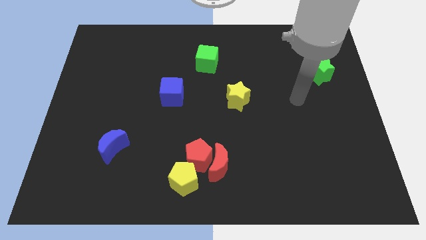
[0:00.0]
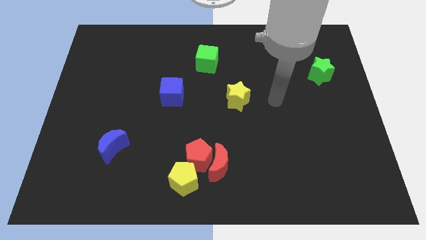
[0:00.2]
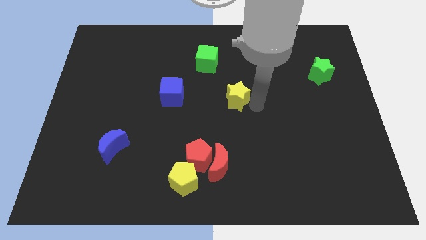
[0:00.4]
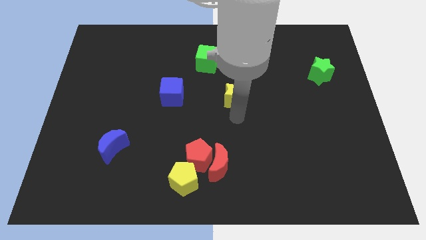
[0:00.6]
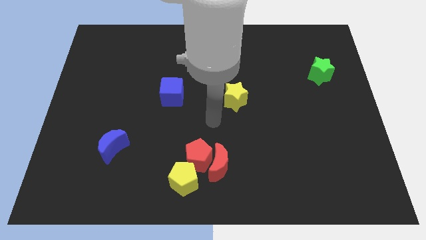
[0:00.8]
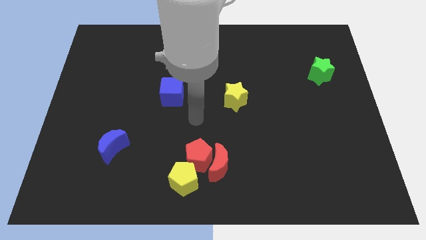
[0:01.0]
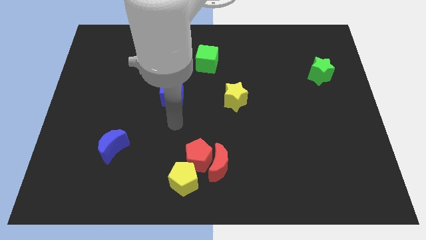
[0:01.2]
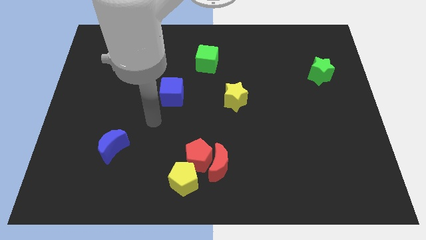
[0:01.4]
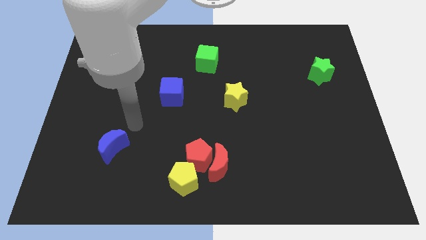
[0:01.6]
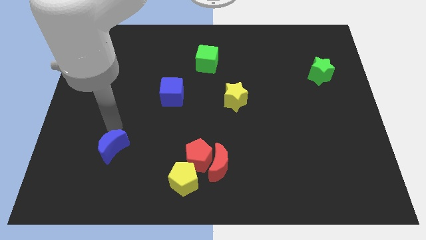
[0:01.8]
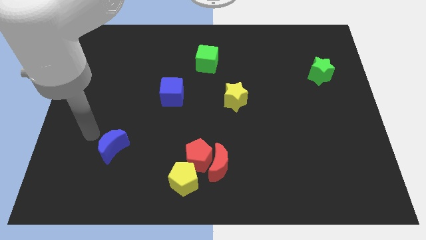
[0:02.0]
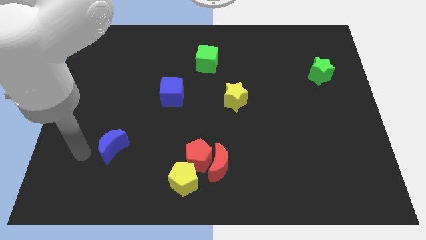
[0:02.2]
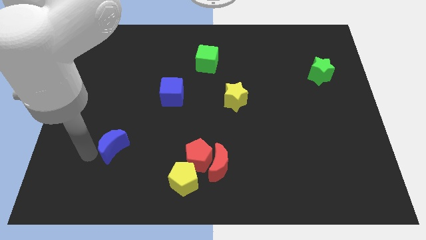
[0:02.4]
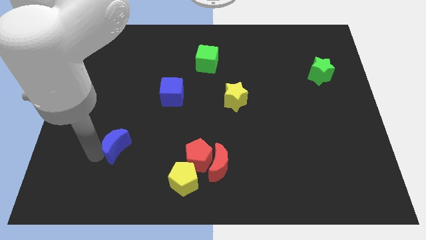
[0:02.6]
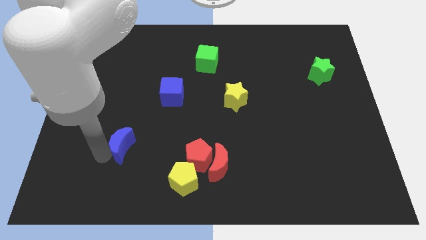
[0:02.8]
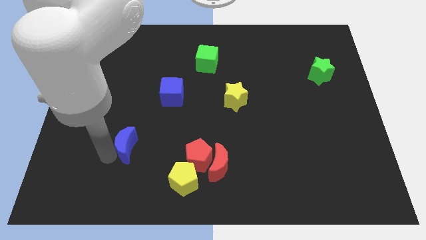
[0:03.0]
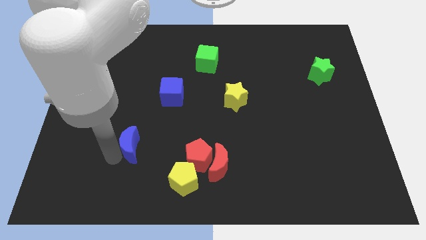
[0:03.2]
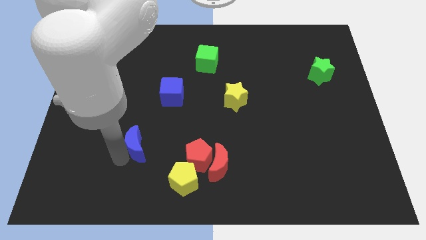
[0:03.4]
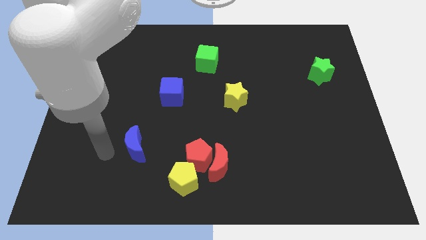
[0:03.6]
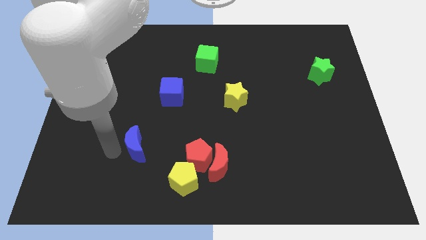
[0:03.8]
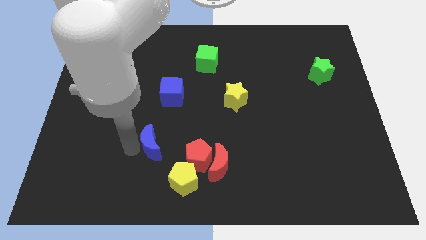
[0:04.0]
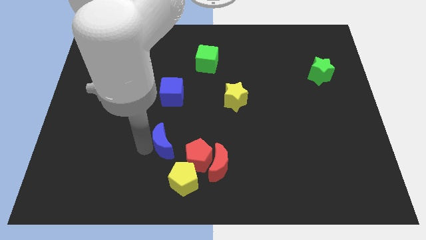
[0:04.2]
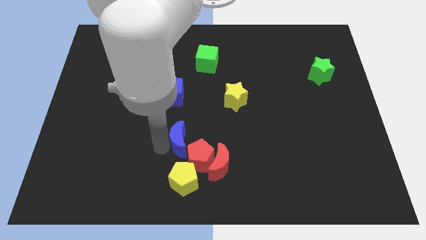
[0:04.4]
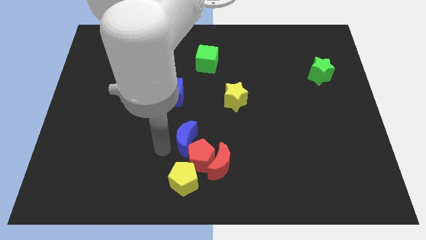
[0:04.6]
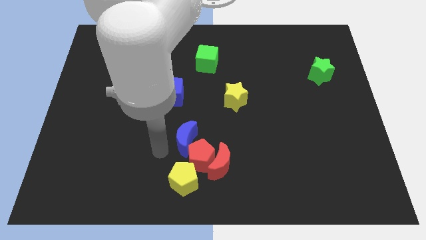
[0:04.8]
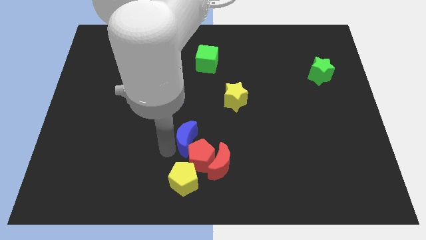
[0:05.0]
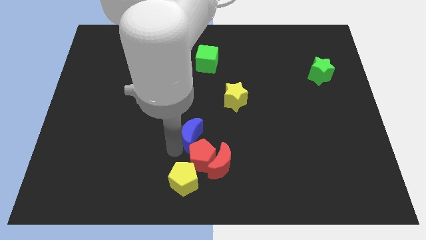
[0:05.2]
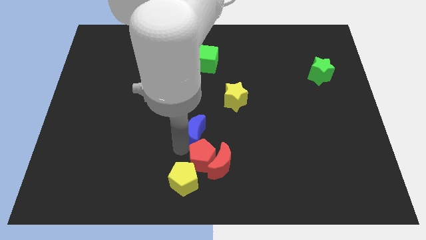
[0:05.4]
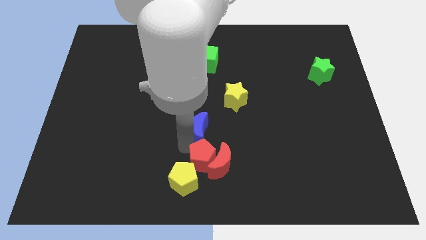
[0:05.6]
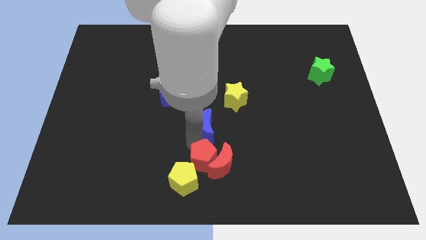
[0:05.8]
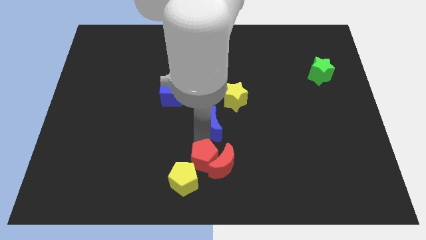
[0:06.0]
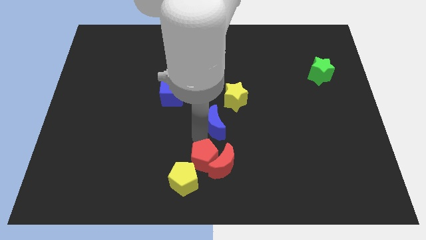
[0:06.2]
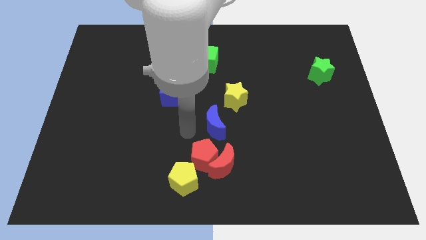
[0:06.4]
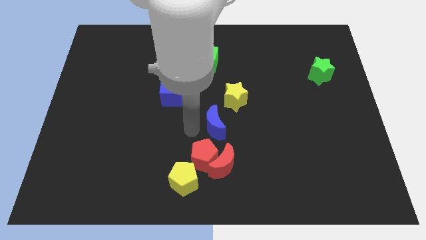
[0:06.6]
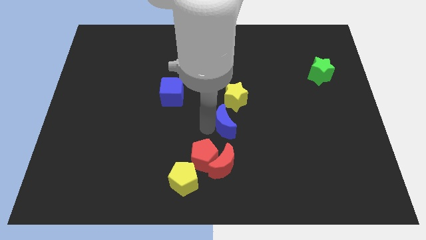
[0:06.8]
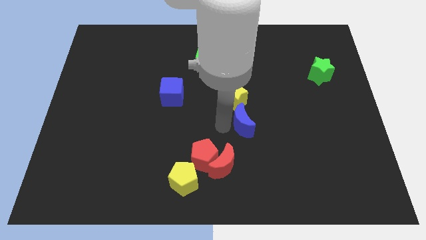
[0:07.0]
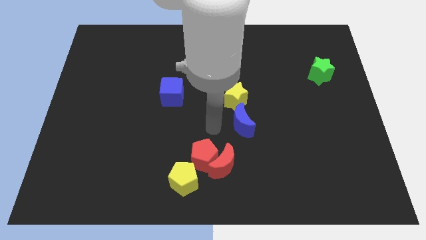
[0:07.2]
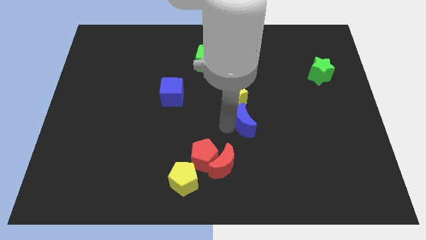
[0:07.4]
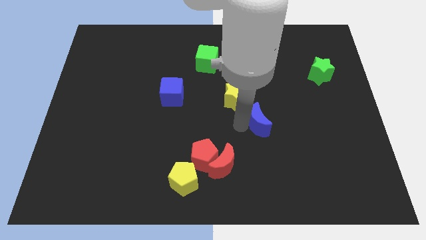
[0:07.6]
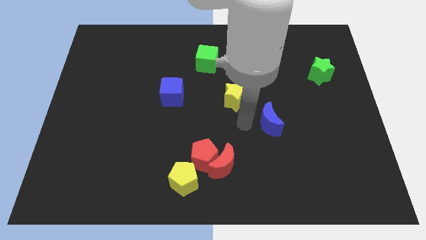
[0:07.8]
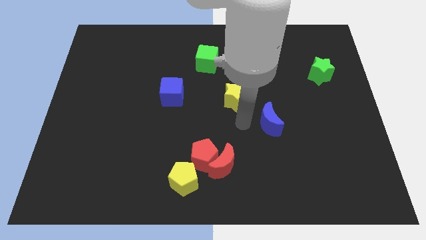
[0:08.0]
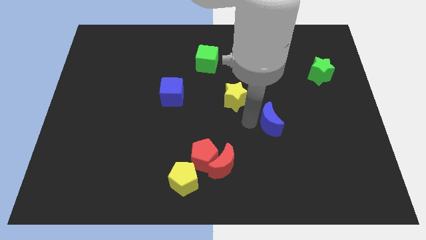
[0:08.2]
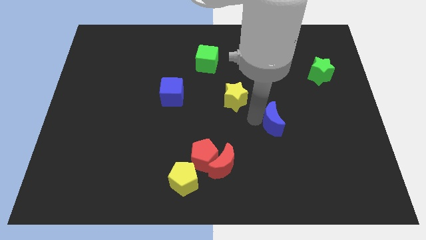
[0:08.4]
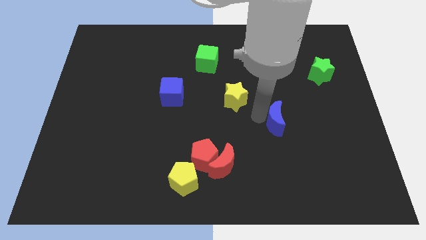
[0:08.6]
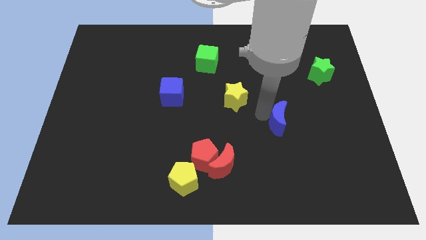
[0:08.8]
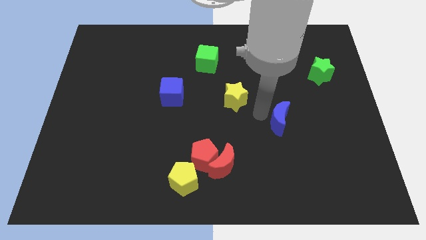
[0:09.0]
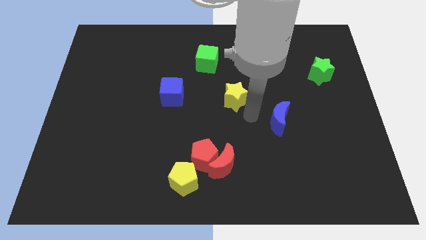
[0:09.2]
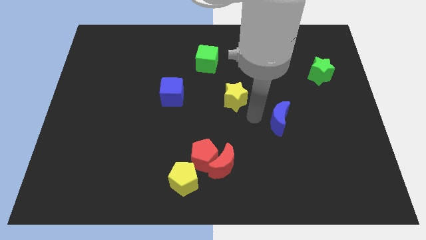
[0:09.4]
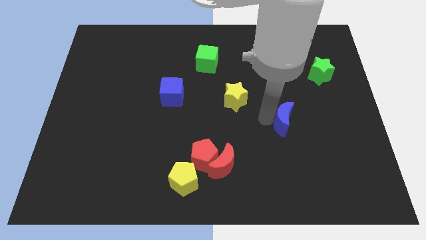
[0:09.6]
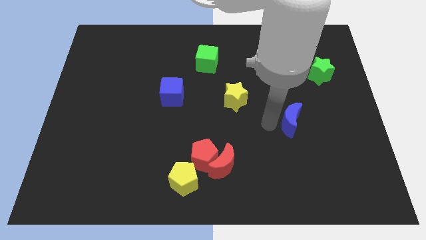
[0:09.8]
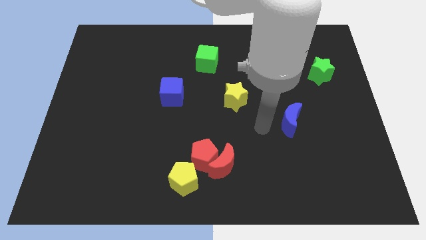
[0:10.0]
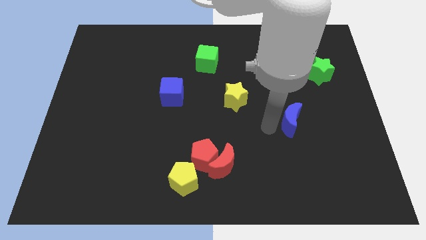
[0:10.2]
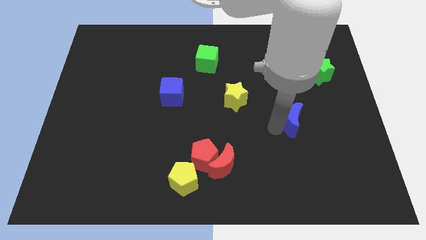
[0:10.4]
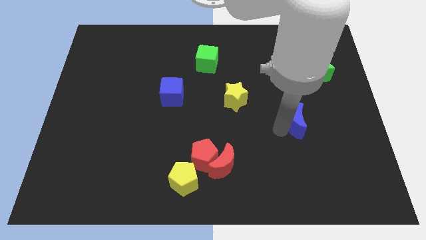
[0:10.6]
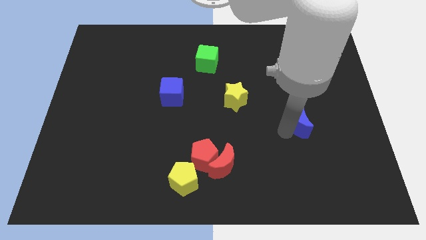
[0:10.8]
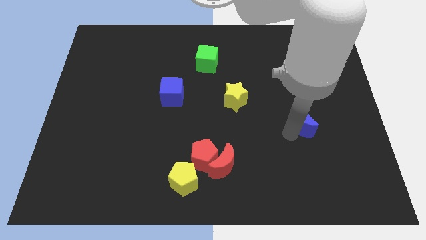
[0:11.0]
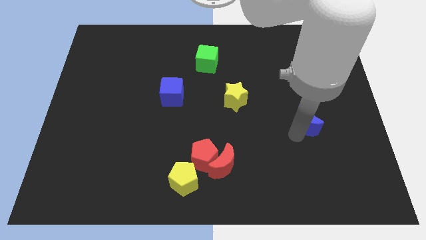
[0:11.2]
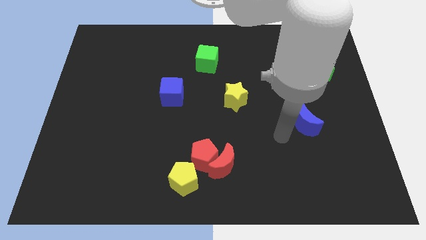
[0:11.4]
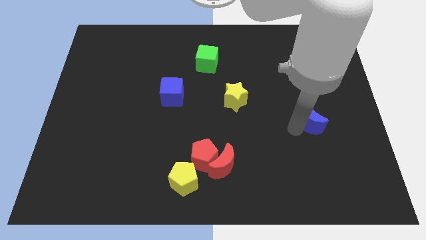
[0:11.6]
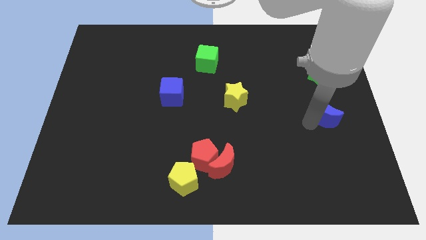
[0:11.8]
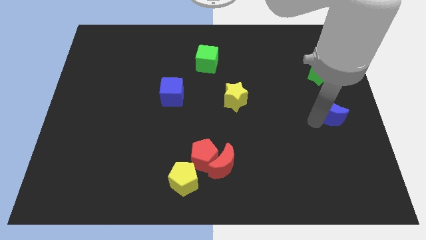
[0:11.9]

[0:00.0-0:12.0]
push the blue moon to the right side of the board
